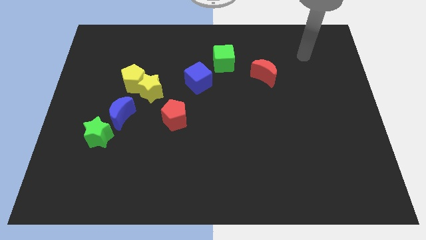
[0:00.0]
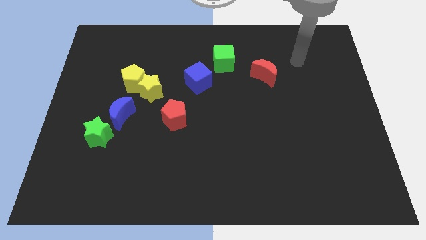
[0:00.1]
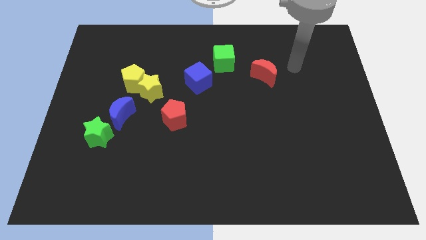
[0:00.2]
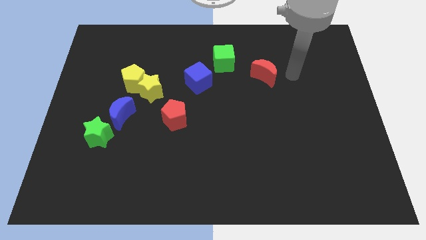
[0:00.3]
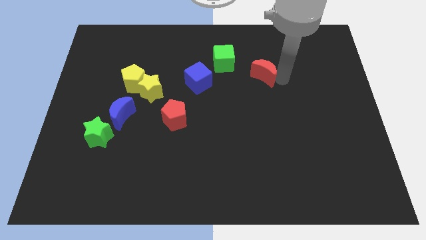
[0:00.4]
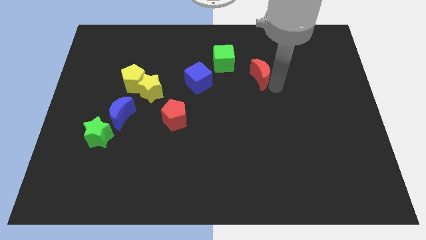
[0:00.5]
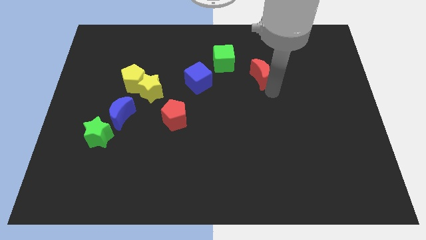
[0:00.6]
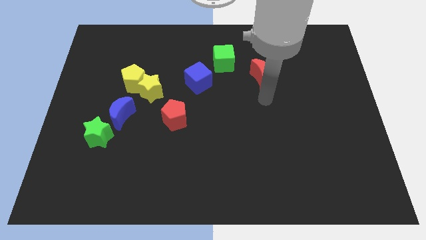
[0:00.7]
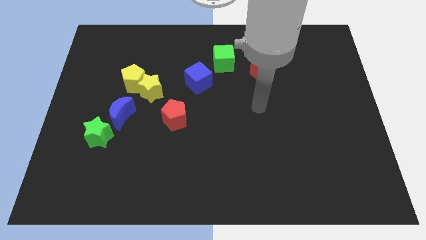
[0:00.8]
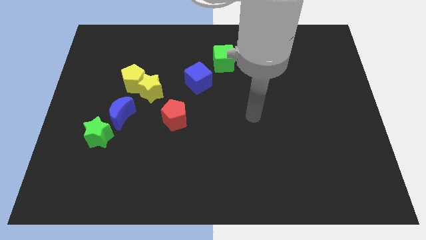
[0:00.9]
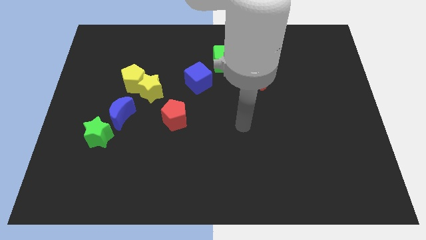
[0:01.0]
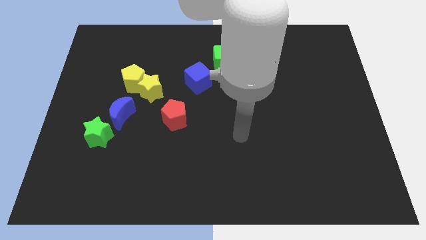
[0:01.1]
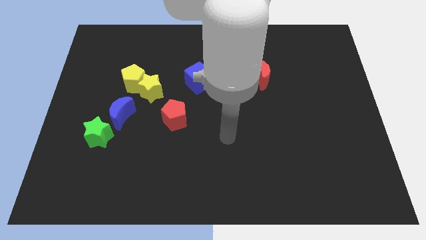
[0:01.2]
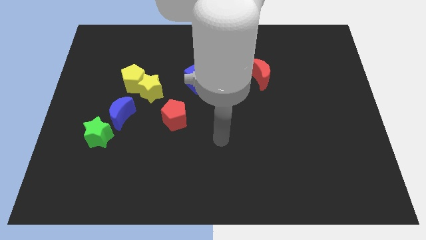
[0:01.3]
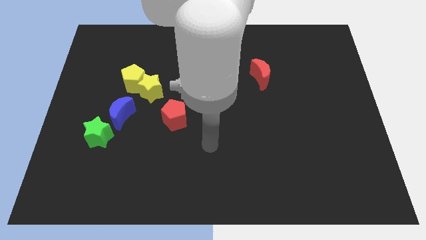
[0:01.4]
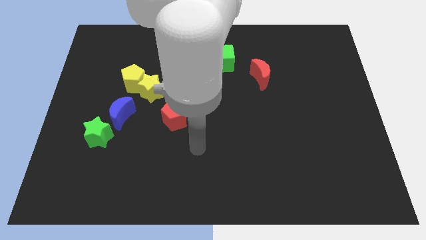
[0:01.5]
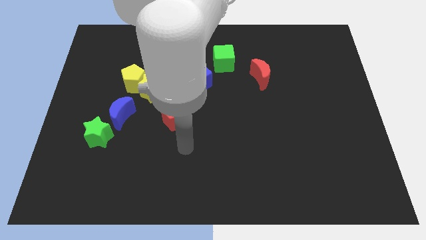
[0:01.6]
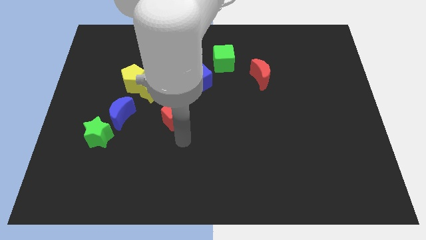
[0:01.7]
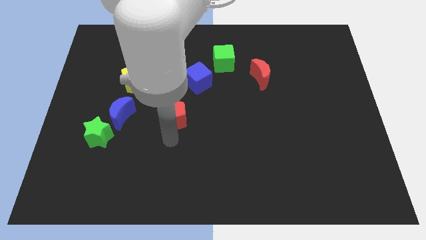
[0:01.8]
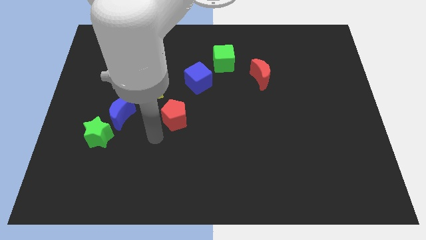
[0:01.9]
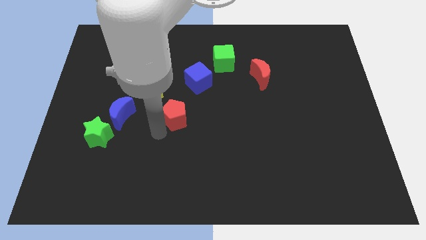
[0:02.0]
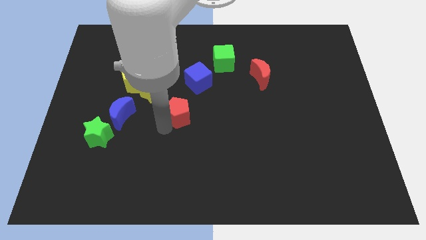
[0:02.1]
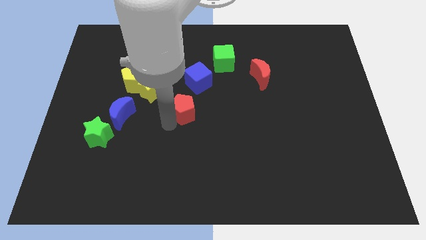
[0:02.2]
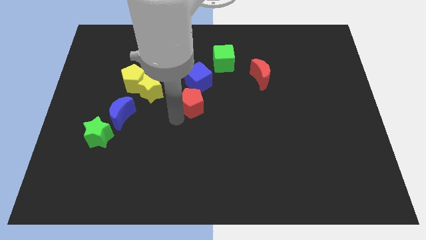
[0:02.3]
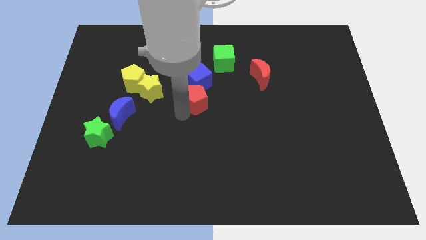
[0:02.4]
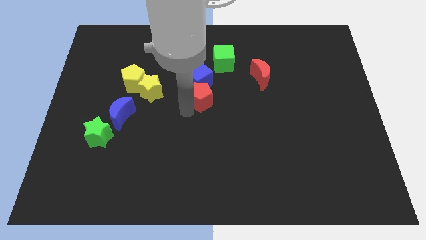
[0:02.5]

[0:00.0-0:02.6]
slightly push the red pentagon up and to the right

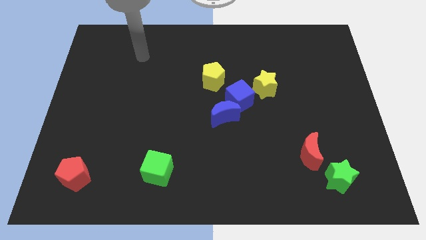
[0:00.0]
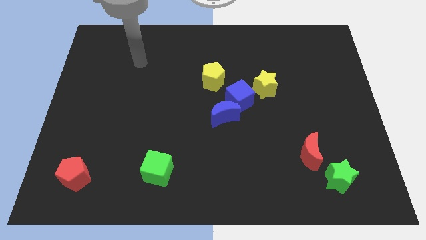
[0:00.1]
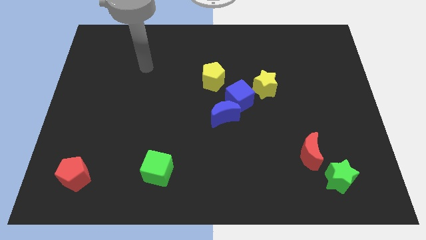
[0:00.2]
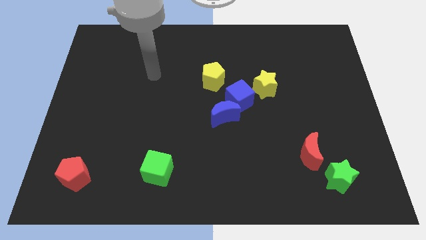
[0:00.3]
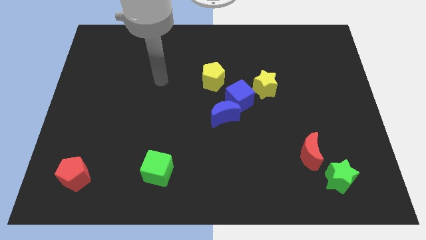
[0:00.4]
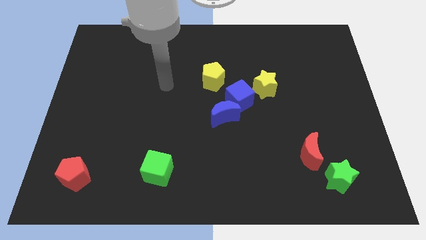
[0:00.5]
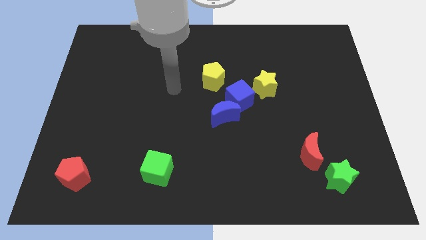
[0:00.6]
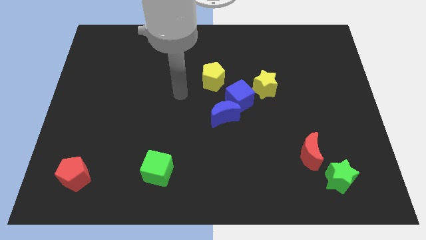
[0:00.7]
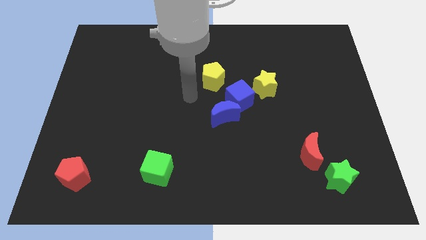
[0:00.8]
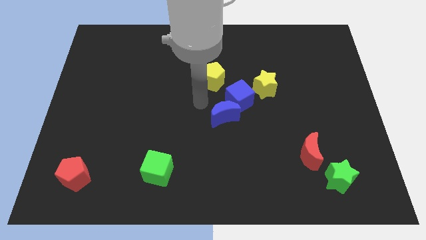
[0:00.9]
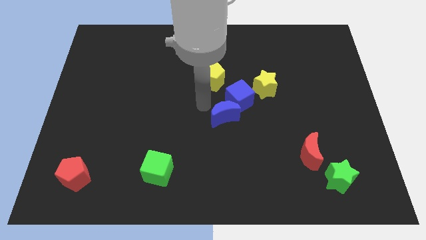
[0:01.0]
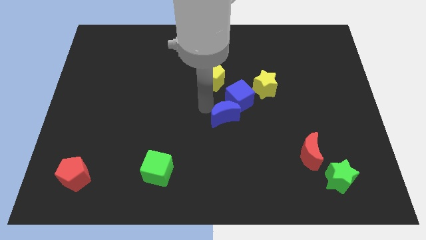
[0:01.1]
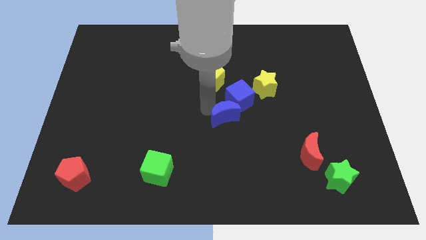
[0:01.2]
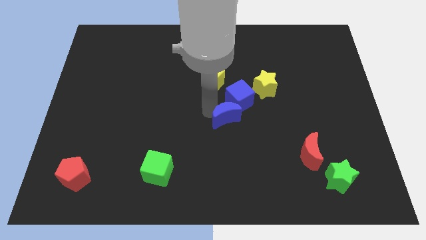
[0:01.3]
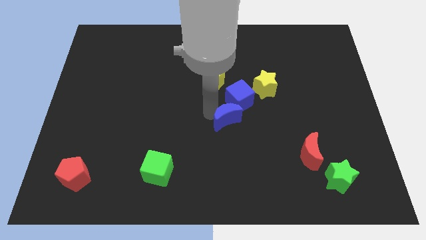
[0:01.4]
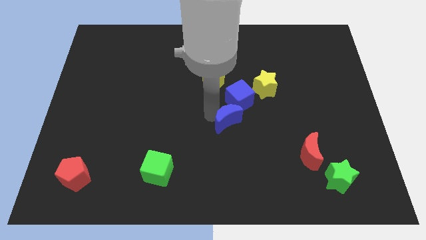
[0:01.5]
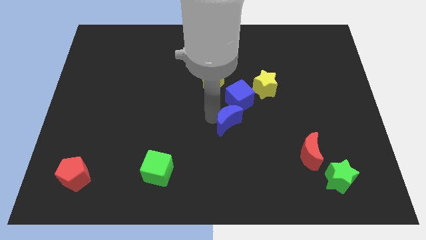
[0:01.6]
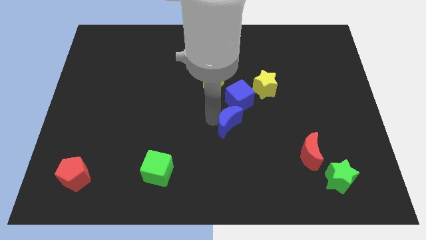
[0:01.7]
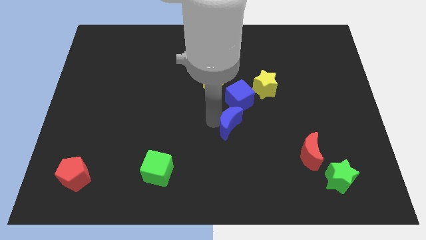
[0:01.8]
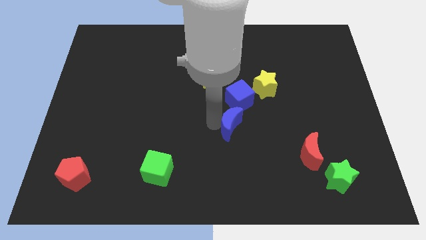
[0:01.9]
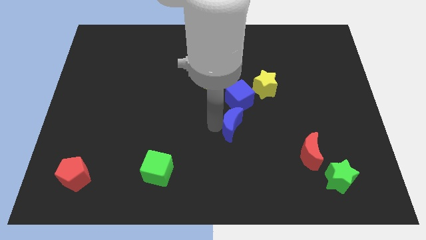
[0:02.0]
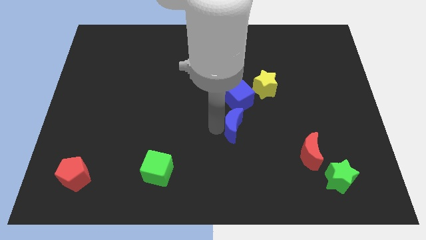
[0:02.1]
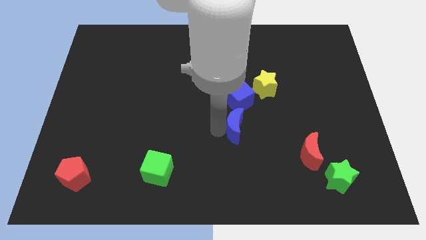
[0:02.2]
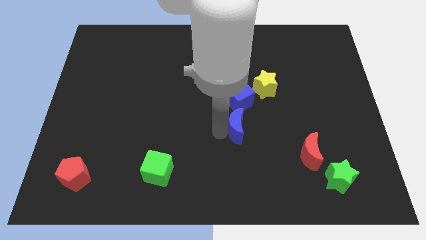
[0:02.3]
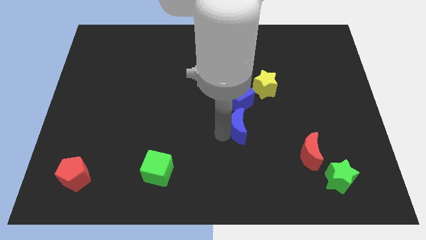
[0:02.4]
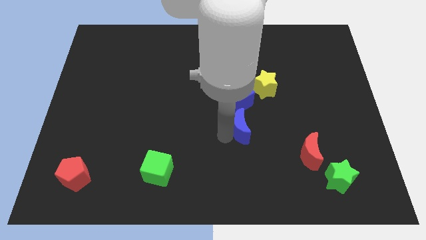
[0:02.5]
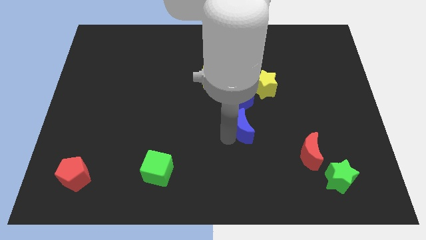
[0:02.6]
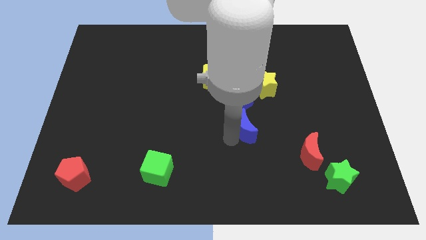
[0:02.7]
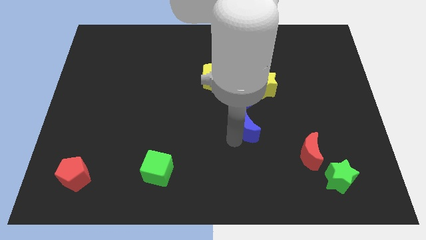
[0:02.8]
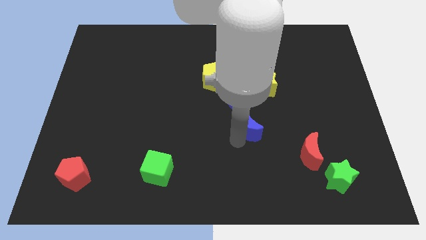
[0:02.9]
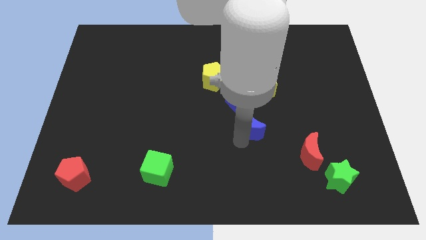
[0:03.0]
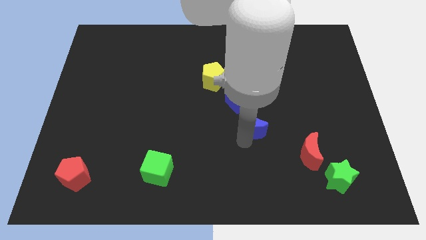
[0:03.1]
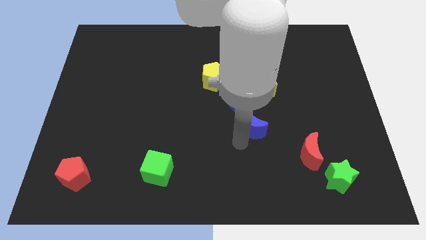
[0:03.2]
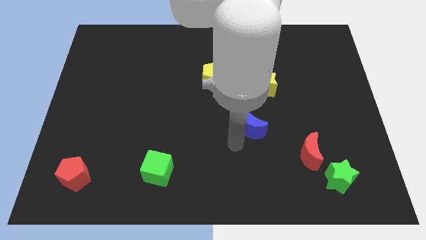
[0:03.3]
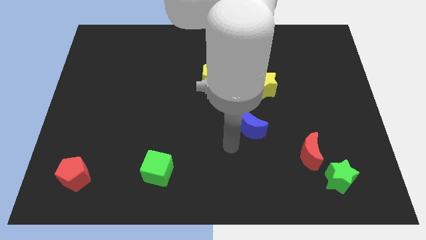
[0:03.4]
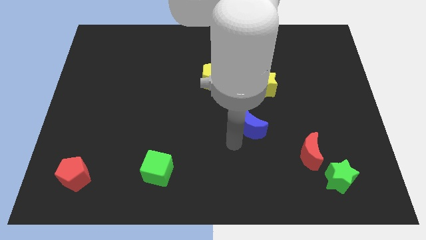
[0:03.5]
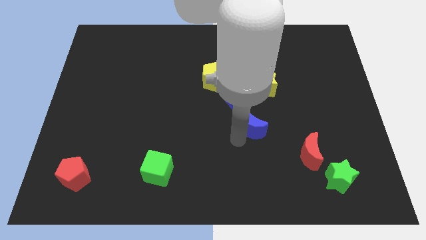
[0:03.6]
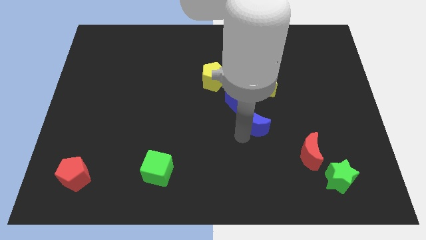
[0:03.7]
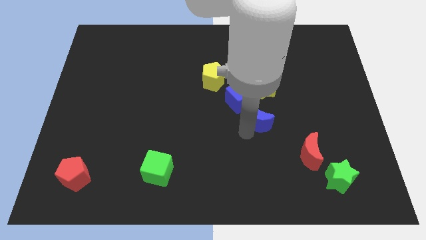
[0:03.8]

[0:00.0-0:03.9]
slightly move the blue moon to the right

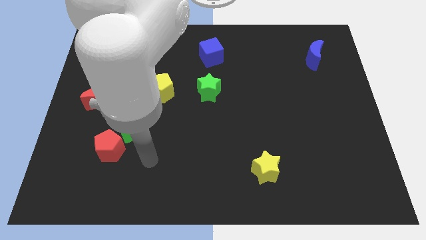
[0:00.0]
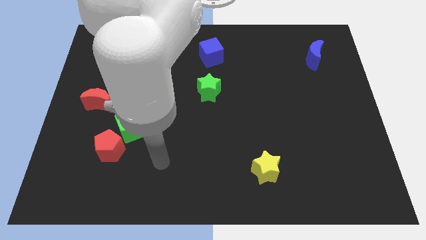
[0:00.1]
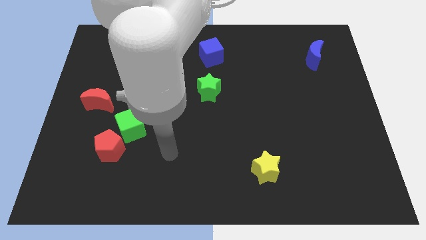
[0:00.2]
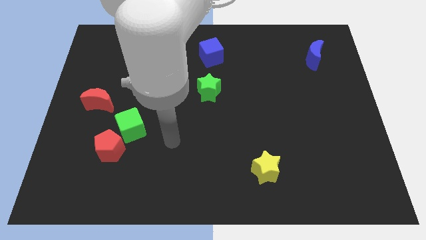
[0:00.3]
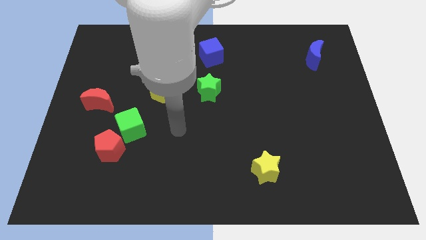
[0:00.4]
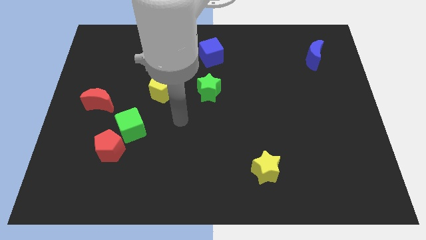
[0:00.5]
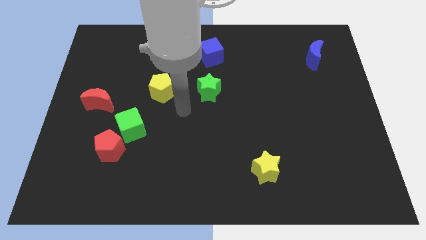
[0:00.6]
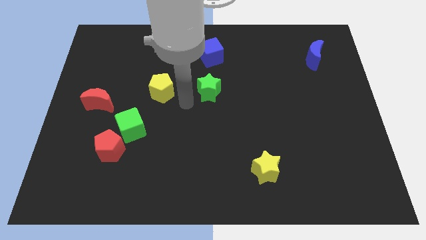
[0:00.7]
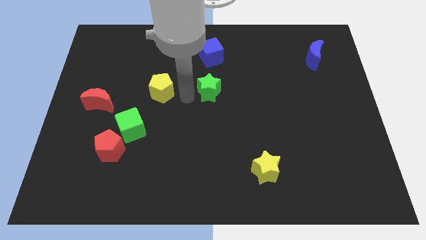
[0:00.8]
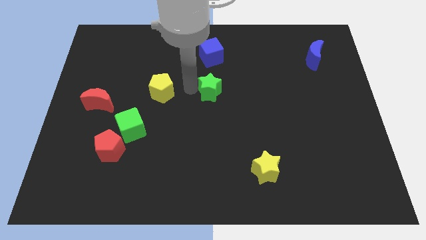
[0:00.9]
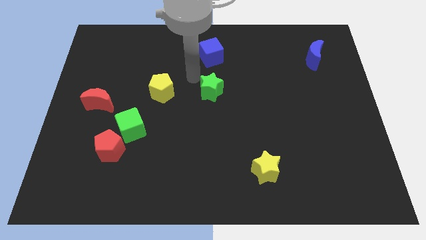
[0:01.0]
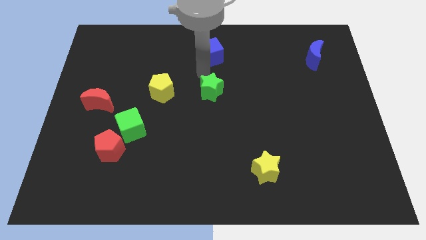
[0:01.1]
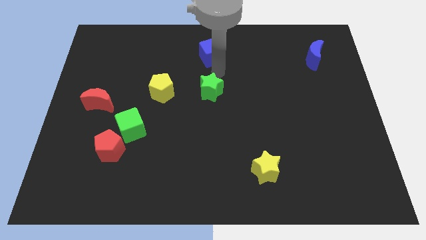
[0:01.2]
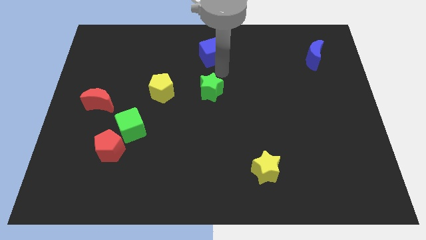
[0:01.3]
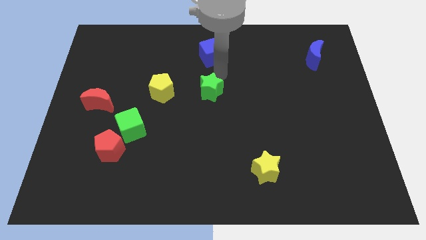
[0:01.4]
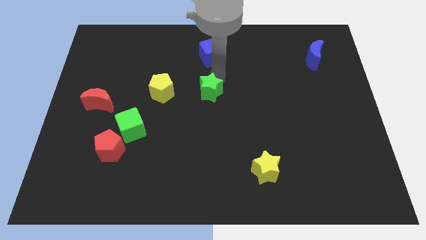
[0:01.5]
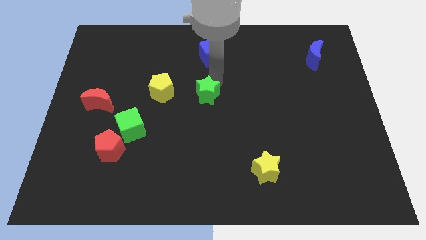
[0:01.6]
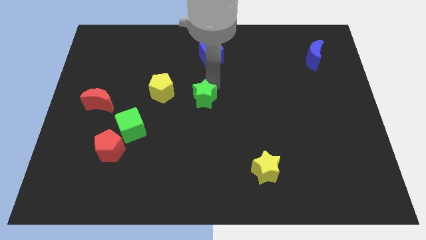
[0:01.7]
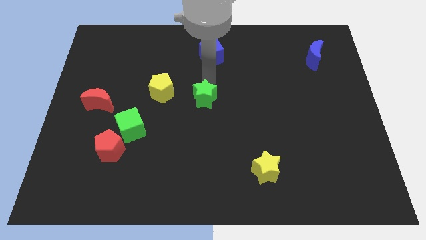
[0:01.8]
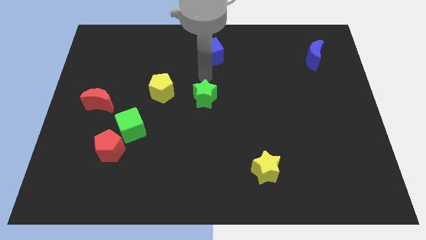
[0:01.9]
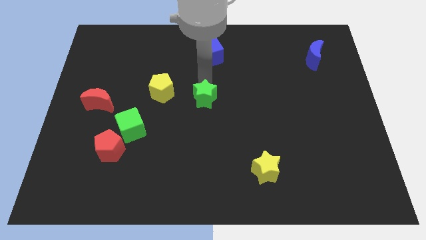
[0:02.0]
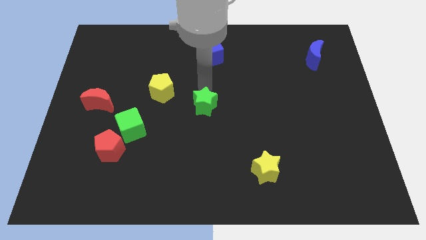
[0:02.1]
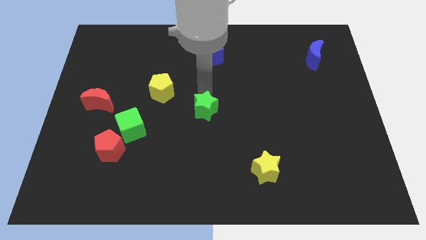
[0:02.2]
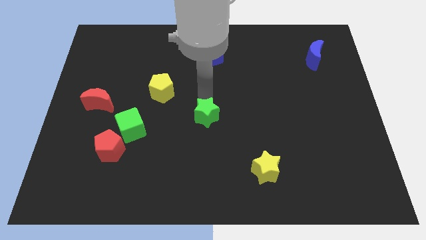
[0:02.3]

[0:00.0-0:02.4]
move the green star down a little bit
